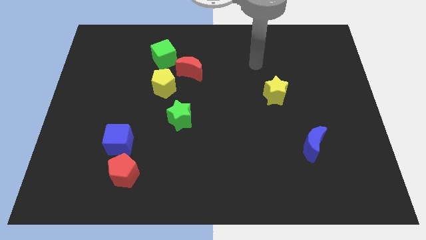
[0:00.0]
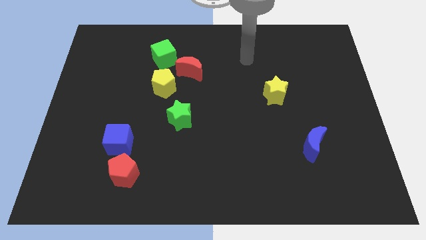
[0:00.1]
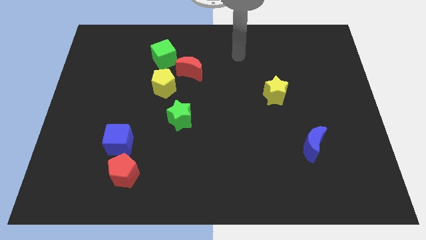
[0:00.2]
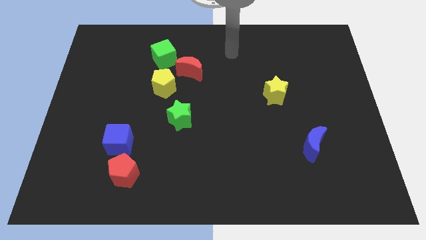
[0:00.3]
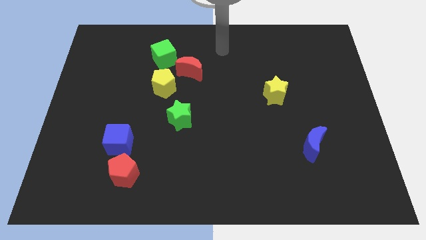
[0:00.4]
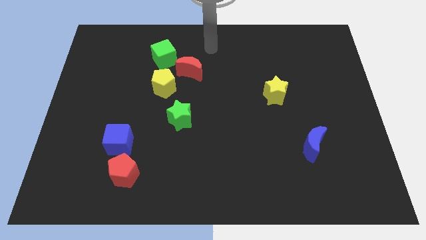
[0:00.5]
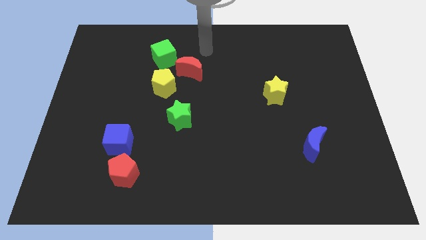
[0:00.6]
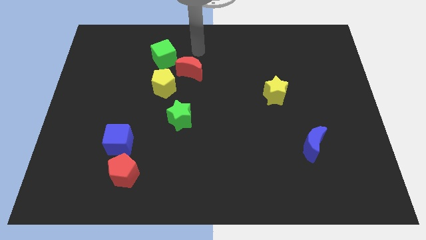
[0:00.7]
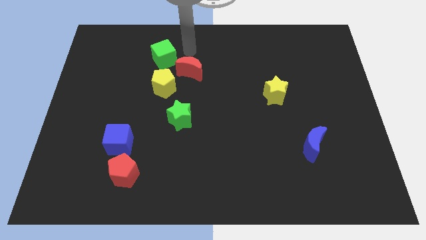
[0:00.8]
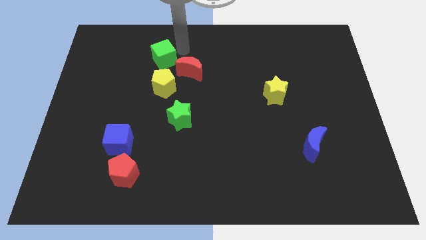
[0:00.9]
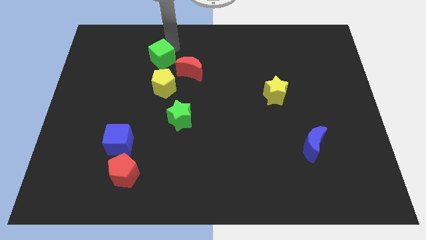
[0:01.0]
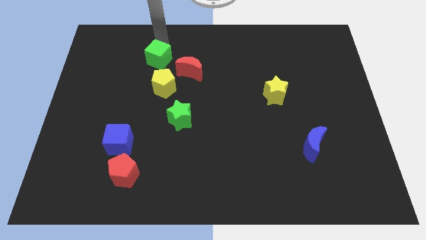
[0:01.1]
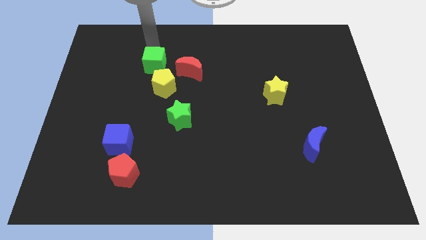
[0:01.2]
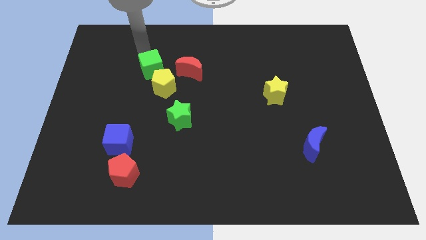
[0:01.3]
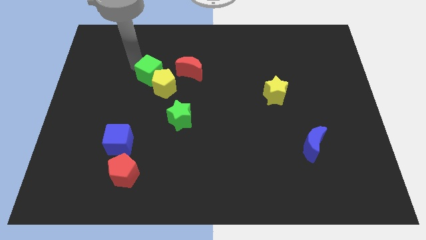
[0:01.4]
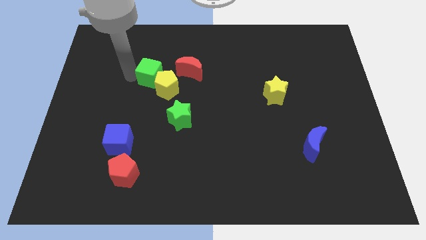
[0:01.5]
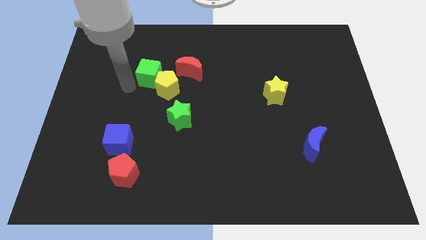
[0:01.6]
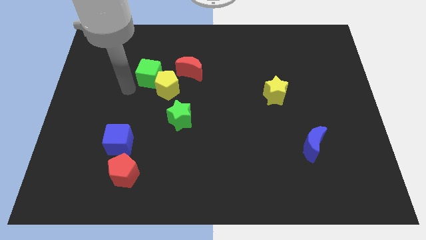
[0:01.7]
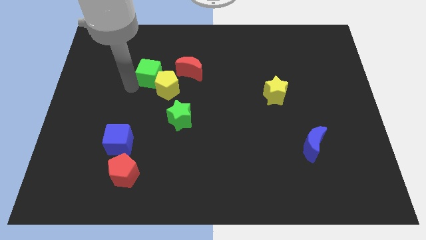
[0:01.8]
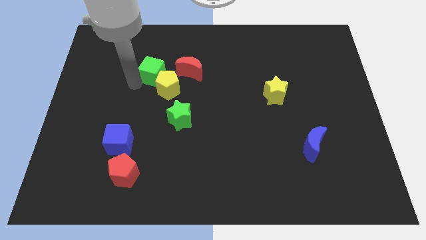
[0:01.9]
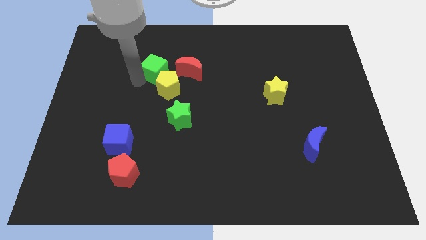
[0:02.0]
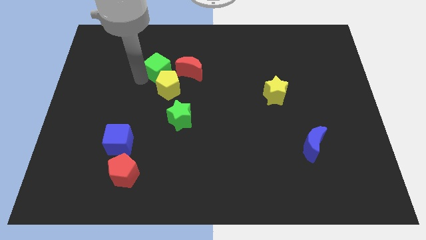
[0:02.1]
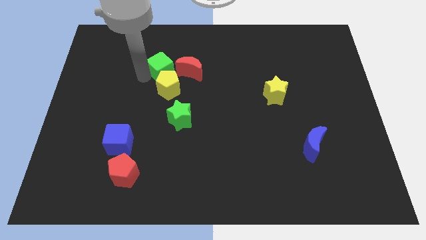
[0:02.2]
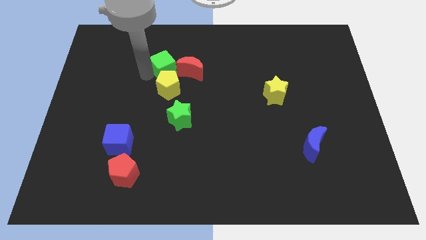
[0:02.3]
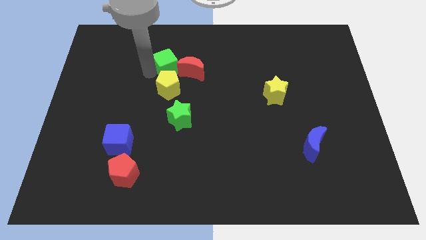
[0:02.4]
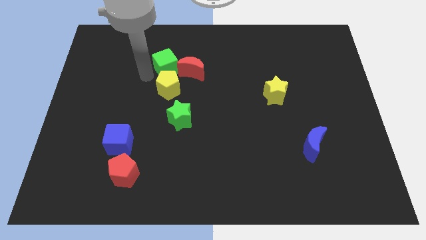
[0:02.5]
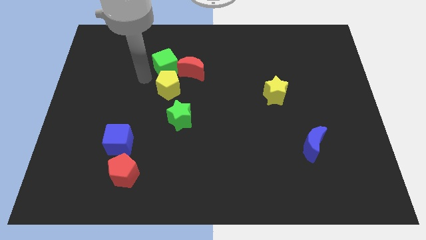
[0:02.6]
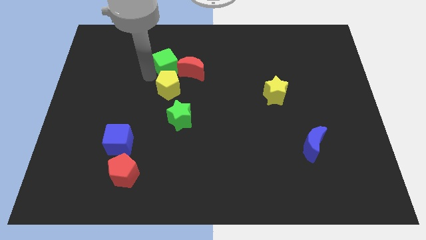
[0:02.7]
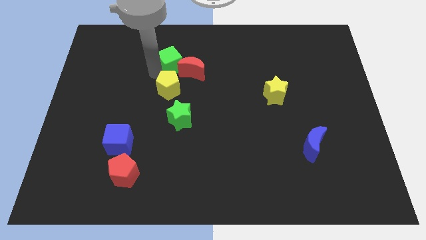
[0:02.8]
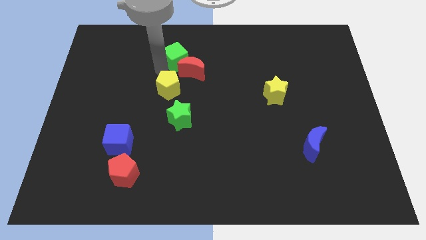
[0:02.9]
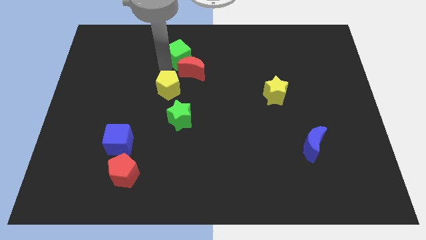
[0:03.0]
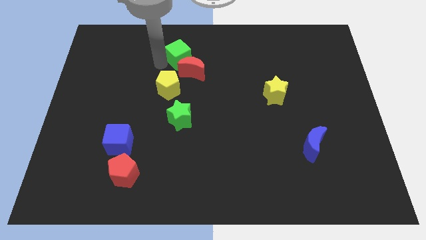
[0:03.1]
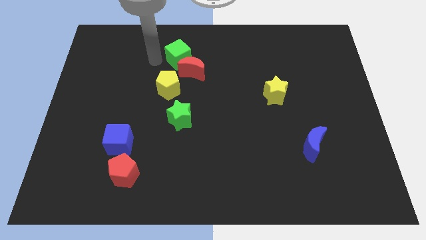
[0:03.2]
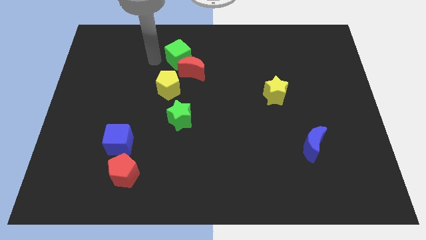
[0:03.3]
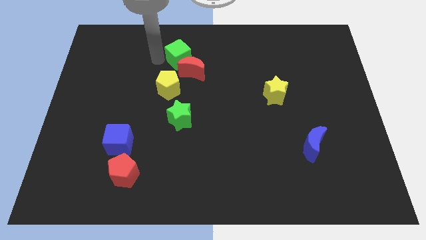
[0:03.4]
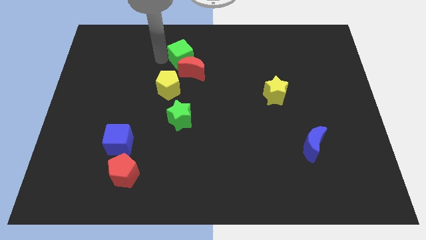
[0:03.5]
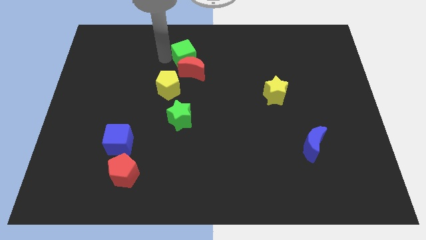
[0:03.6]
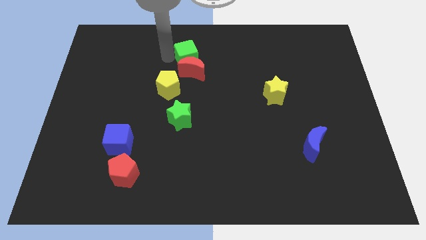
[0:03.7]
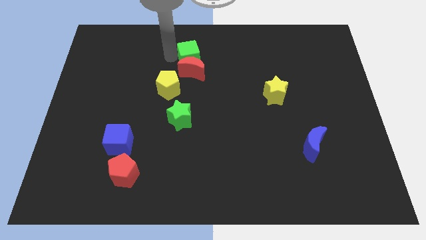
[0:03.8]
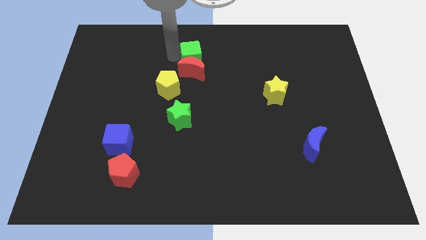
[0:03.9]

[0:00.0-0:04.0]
slide the green cube right somewhat

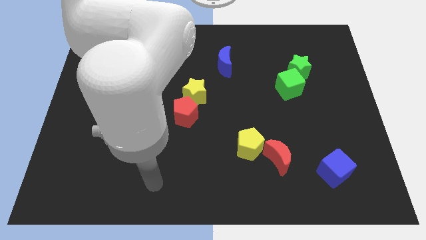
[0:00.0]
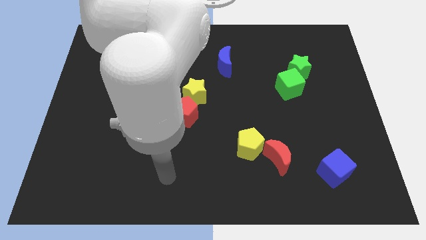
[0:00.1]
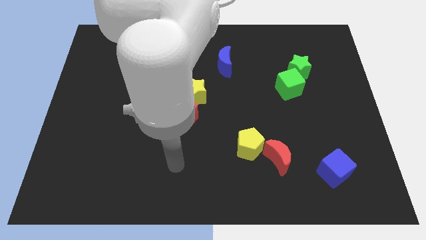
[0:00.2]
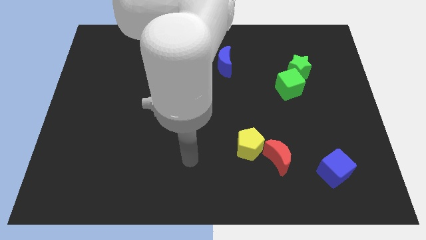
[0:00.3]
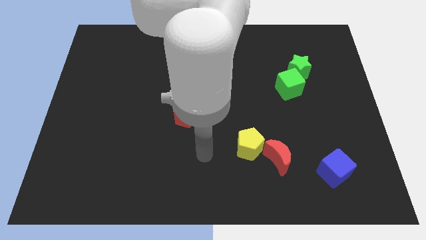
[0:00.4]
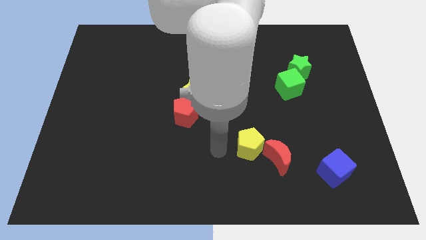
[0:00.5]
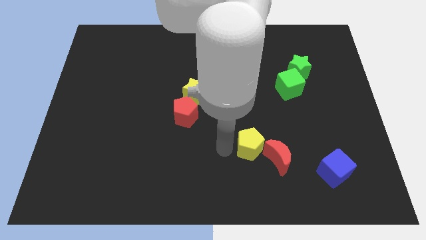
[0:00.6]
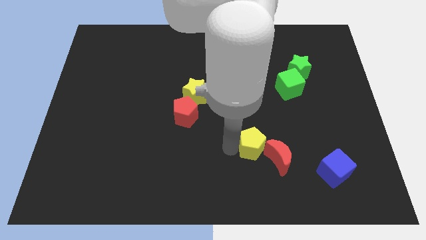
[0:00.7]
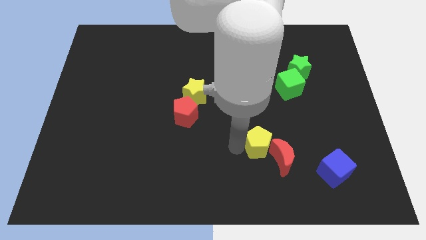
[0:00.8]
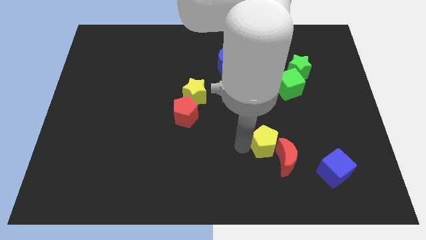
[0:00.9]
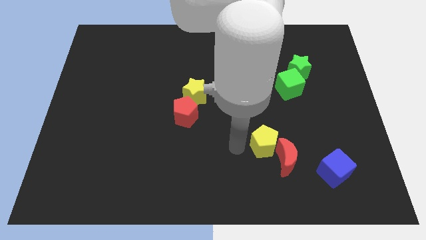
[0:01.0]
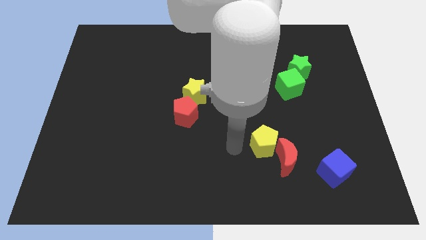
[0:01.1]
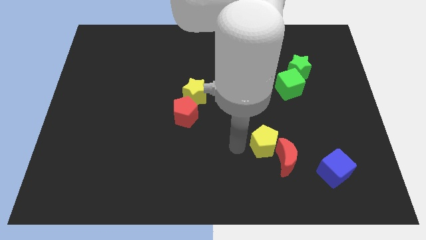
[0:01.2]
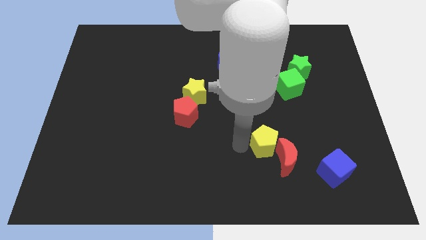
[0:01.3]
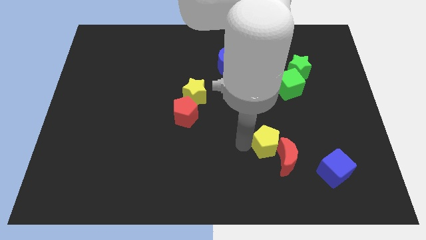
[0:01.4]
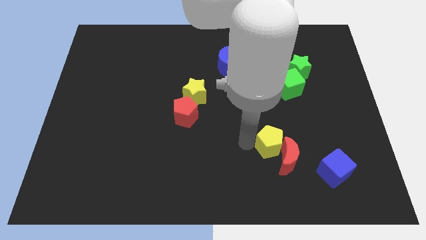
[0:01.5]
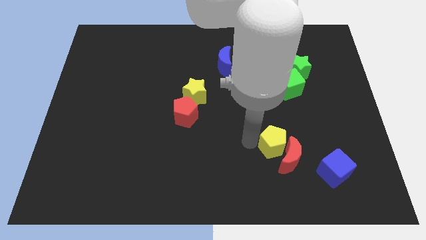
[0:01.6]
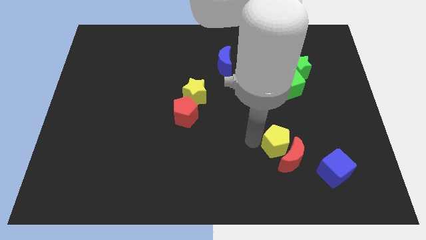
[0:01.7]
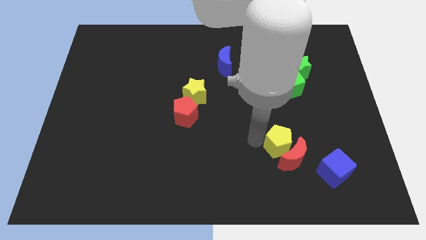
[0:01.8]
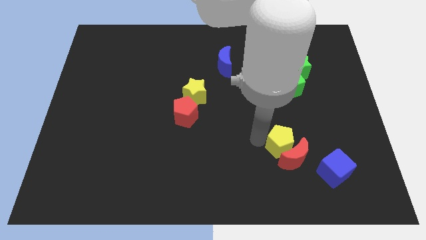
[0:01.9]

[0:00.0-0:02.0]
slide the yellow pentagon a bit right

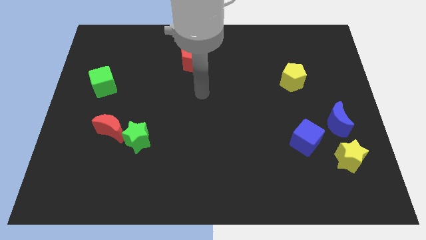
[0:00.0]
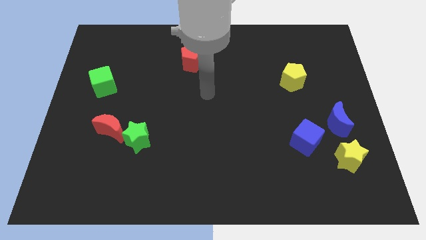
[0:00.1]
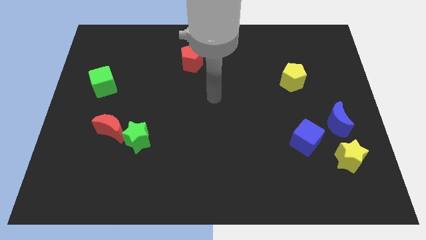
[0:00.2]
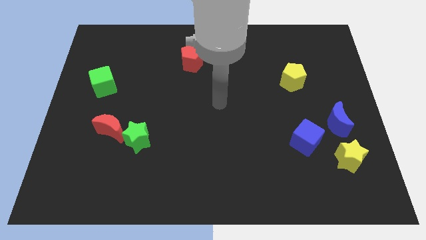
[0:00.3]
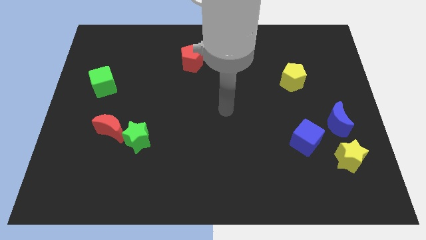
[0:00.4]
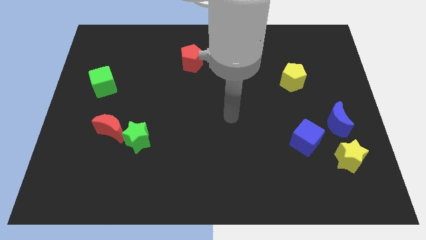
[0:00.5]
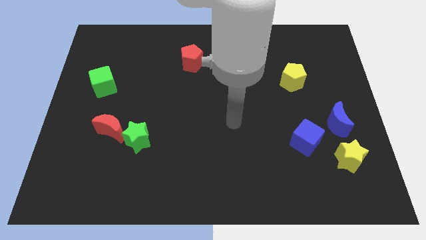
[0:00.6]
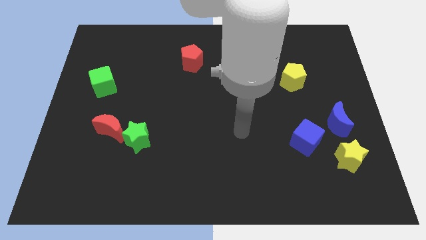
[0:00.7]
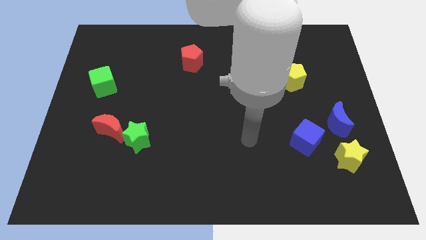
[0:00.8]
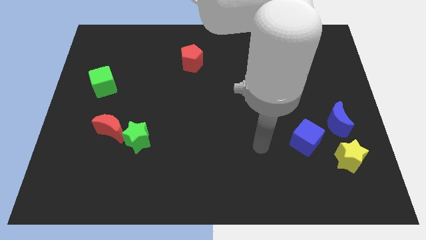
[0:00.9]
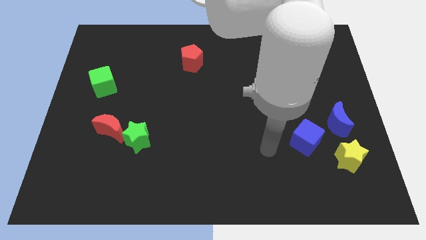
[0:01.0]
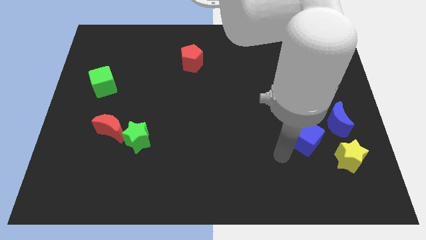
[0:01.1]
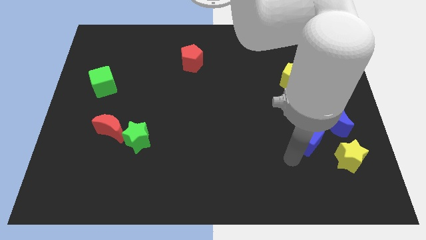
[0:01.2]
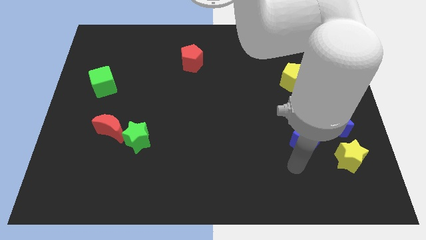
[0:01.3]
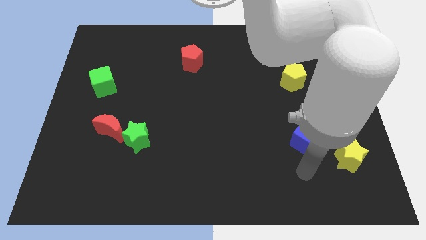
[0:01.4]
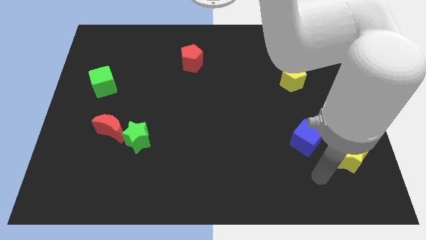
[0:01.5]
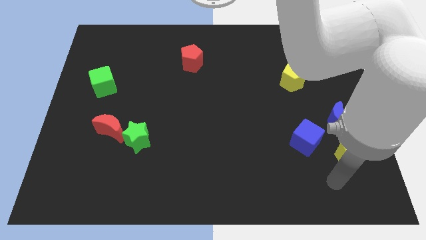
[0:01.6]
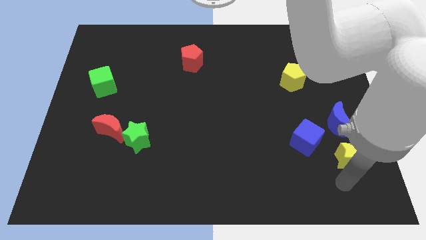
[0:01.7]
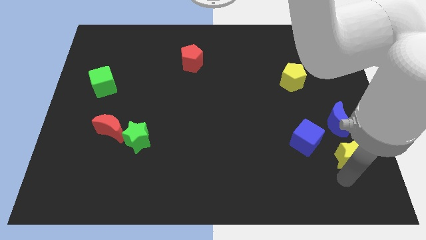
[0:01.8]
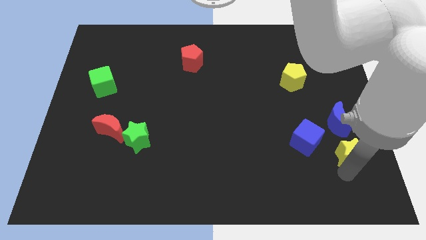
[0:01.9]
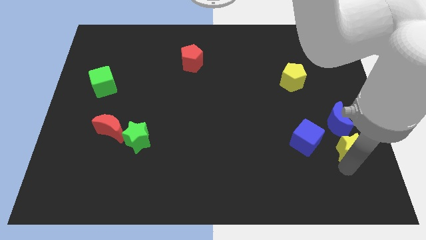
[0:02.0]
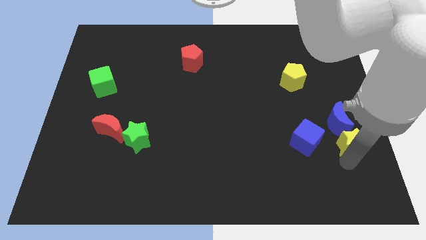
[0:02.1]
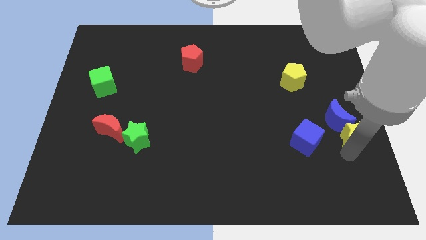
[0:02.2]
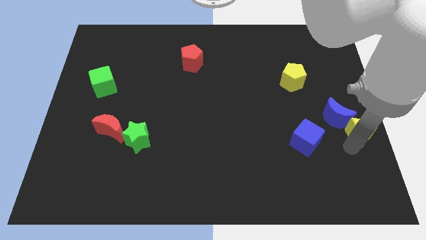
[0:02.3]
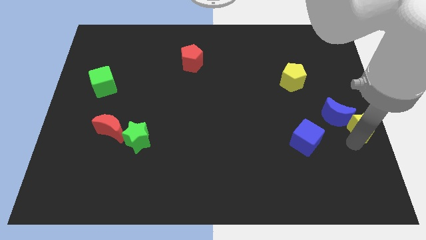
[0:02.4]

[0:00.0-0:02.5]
push the yellow star a little upwards
